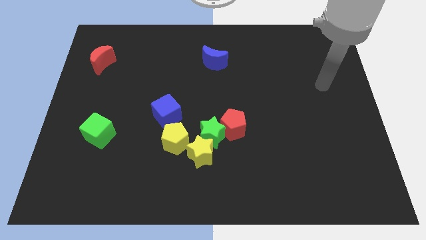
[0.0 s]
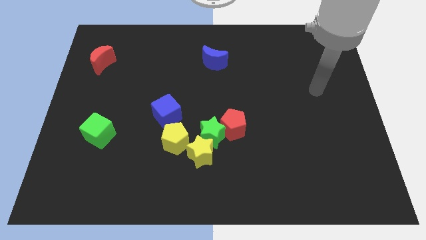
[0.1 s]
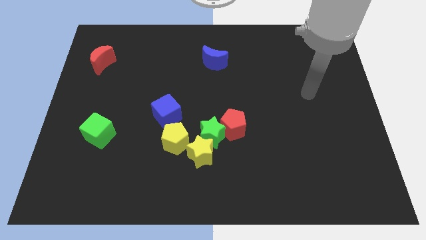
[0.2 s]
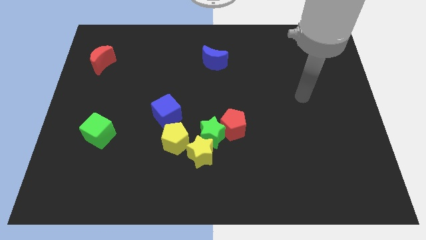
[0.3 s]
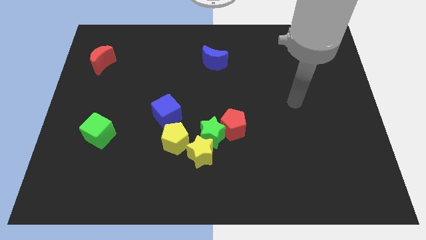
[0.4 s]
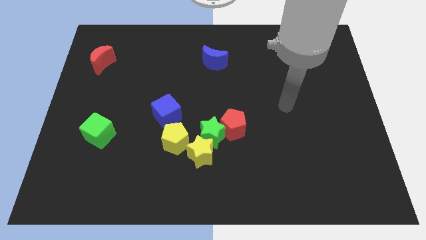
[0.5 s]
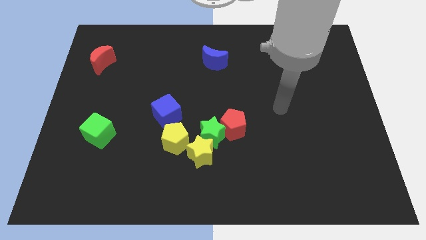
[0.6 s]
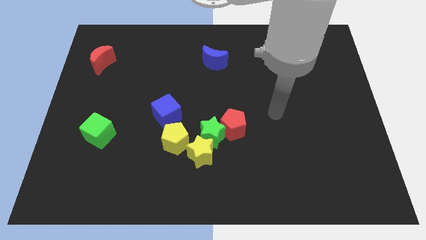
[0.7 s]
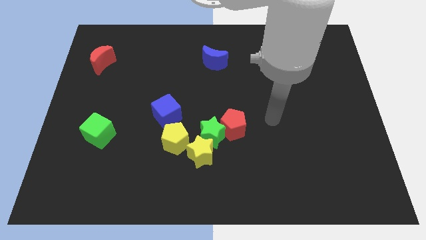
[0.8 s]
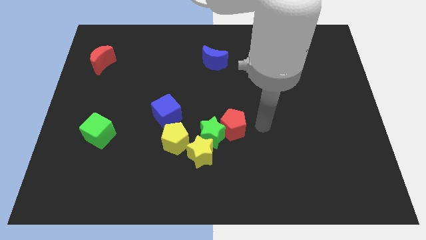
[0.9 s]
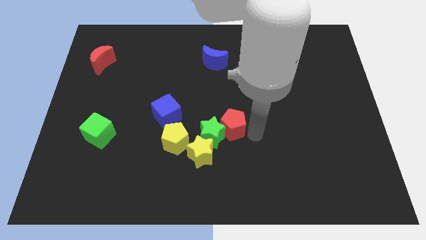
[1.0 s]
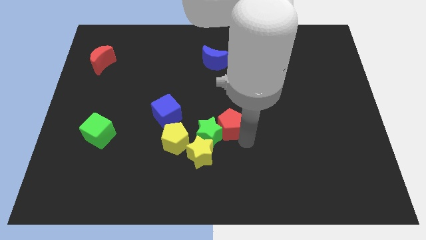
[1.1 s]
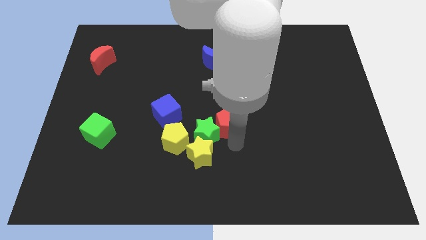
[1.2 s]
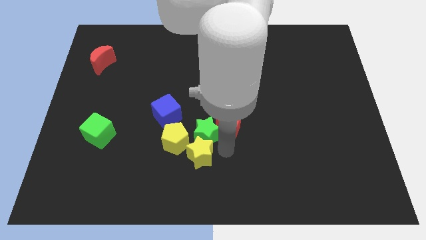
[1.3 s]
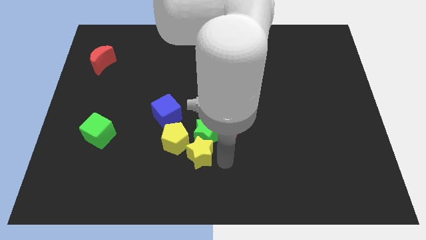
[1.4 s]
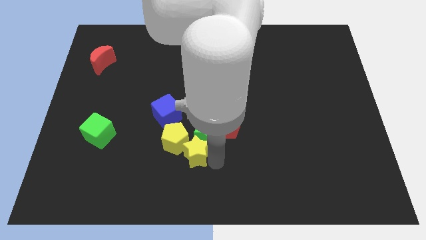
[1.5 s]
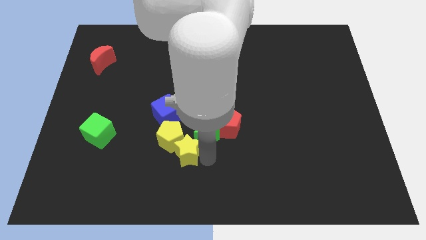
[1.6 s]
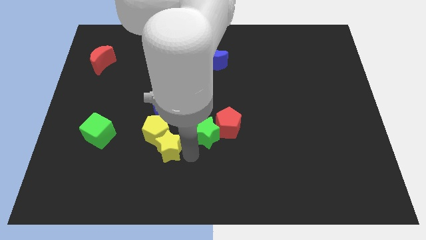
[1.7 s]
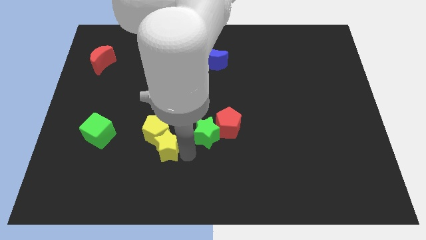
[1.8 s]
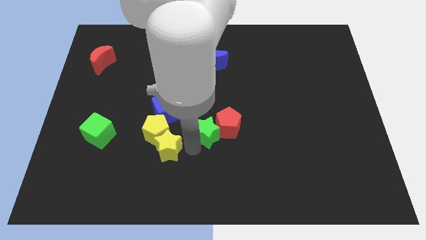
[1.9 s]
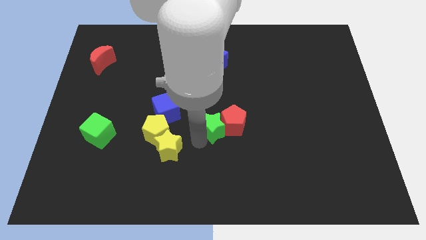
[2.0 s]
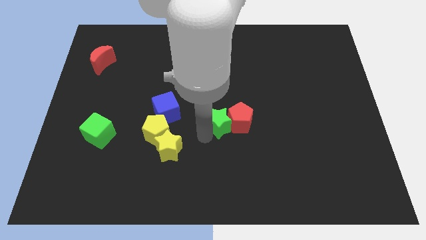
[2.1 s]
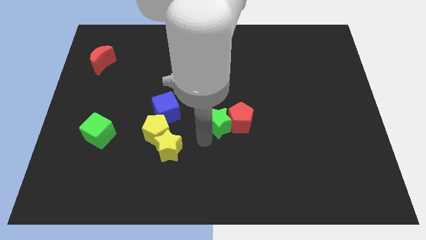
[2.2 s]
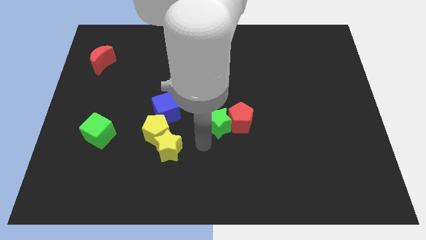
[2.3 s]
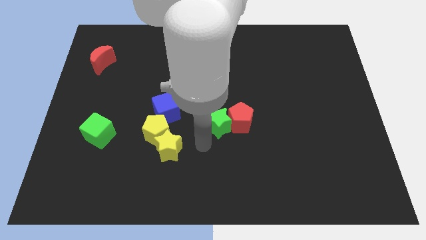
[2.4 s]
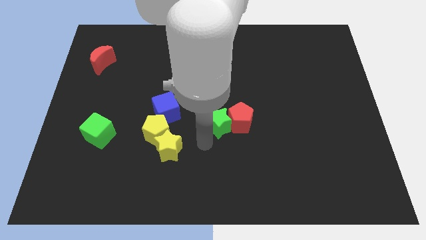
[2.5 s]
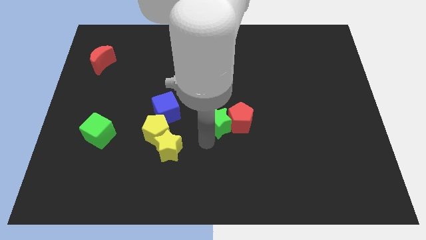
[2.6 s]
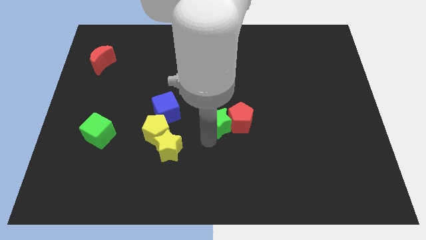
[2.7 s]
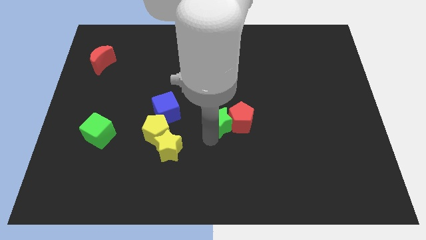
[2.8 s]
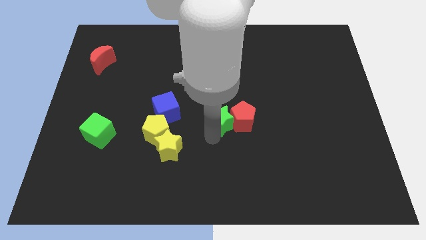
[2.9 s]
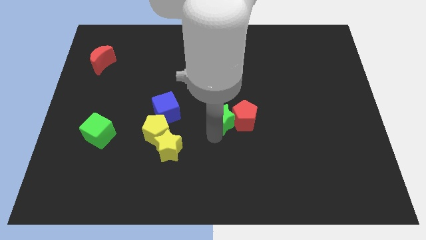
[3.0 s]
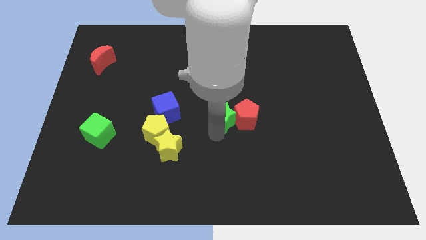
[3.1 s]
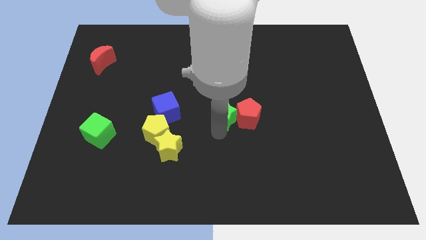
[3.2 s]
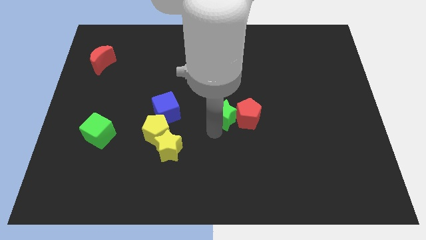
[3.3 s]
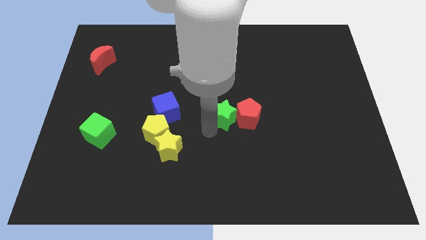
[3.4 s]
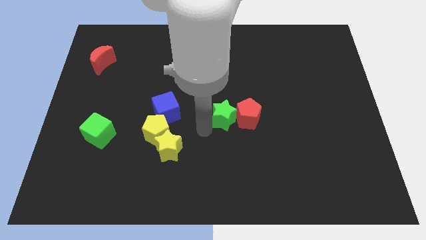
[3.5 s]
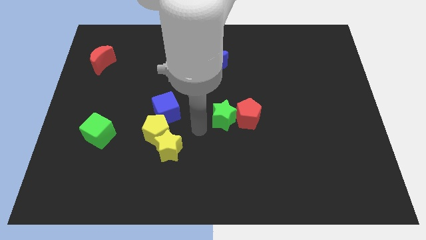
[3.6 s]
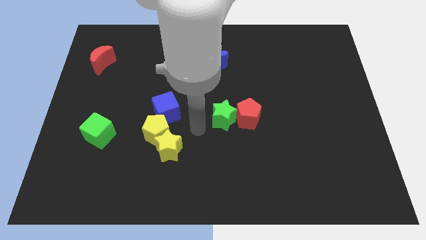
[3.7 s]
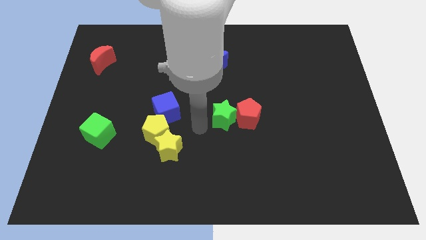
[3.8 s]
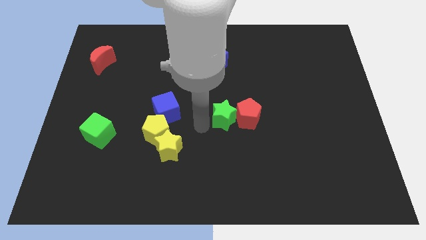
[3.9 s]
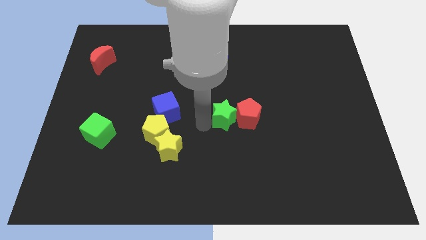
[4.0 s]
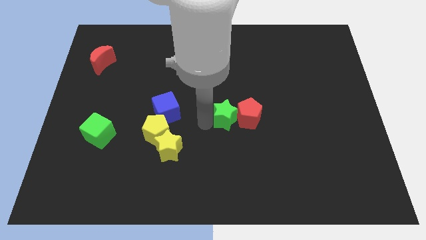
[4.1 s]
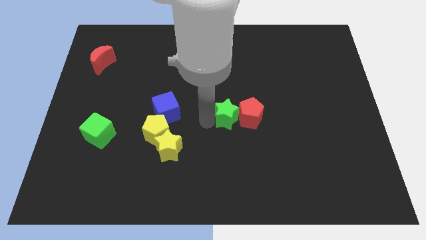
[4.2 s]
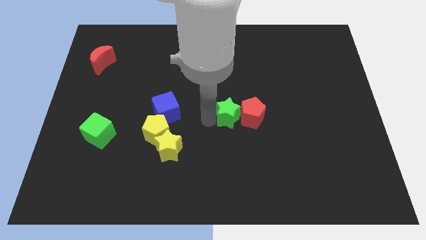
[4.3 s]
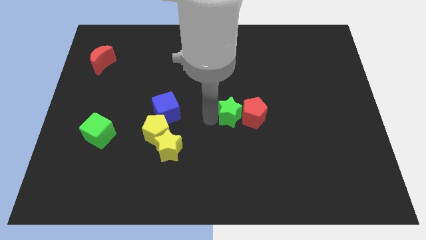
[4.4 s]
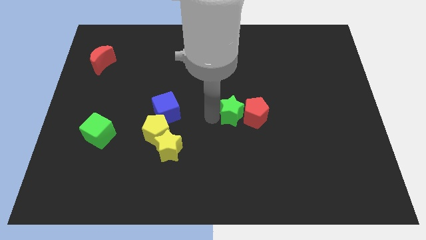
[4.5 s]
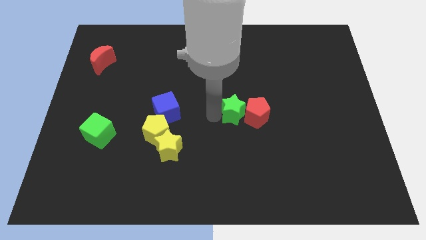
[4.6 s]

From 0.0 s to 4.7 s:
move the green star away from the yellow star, red pentagon, and yellow pentagon

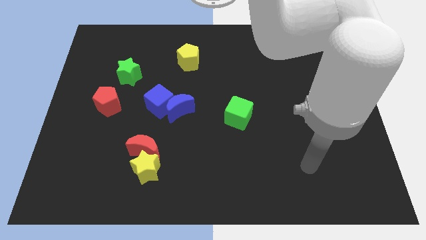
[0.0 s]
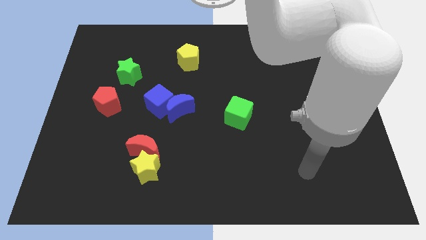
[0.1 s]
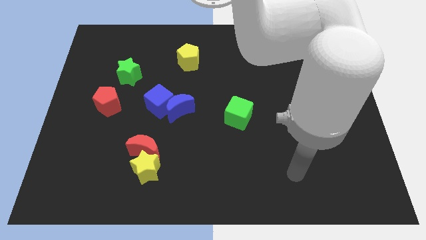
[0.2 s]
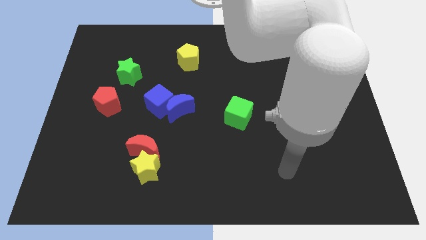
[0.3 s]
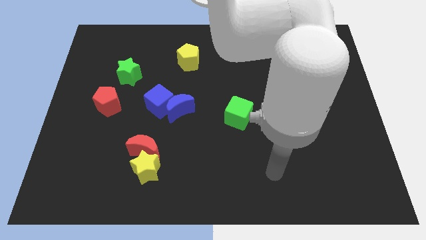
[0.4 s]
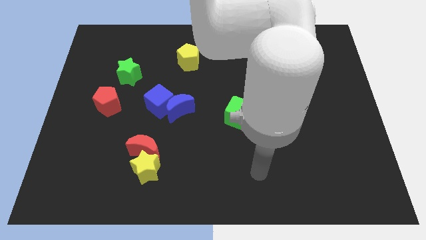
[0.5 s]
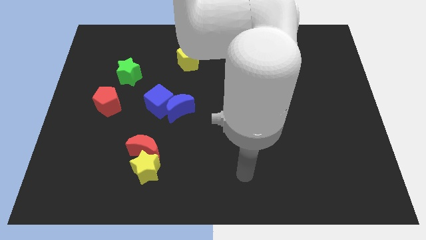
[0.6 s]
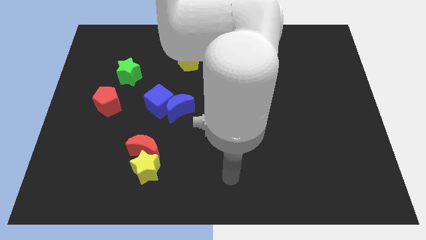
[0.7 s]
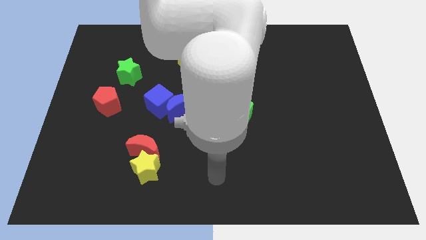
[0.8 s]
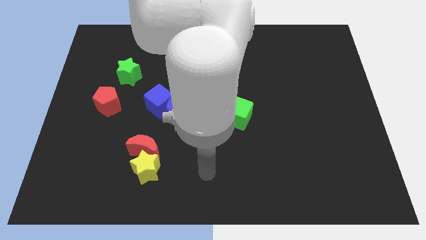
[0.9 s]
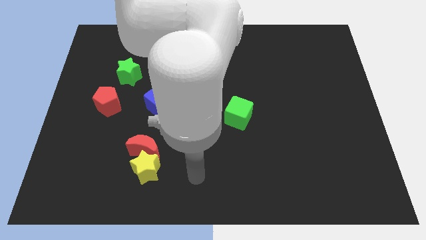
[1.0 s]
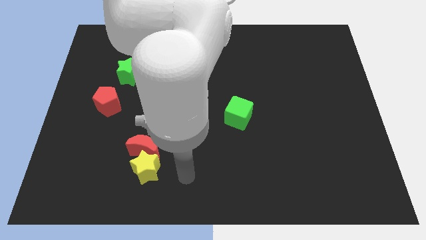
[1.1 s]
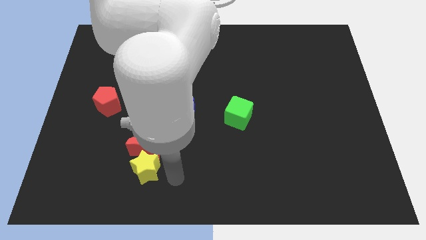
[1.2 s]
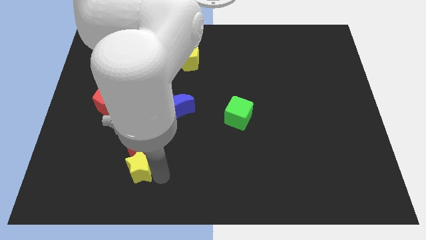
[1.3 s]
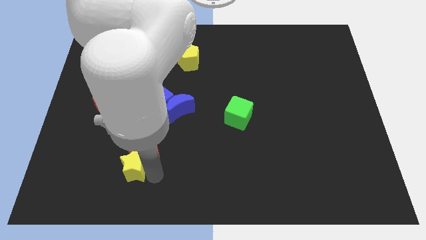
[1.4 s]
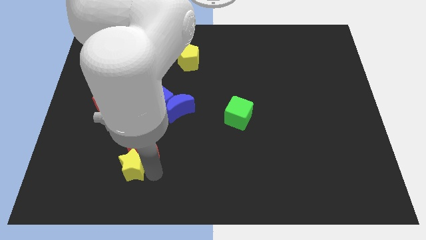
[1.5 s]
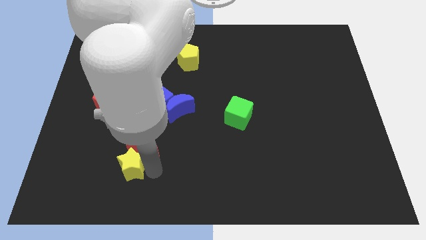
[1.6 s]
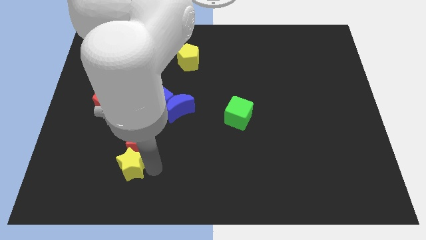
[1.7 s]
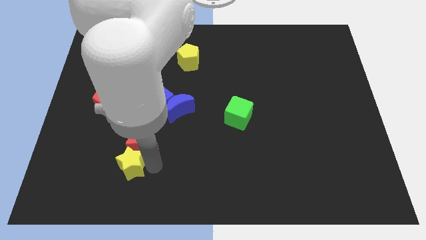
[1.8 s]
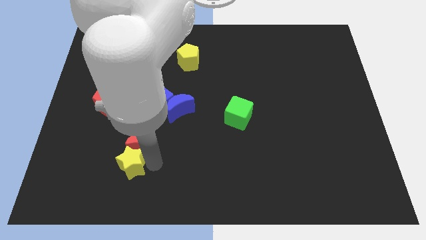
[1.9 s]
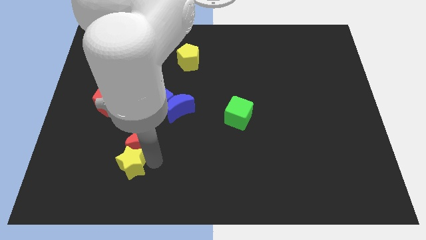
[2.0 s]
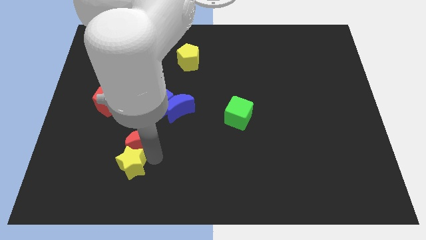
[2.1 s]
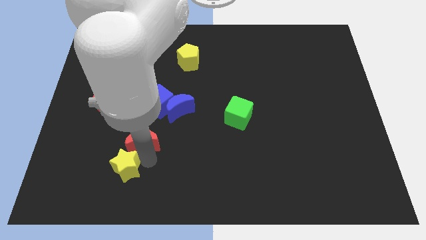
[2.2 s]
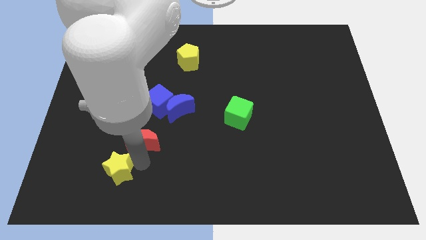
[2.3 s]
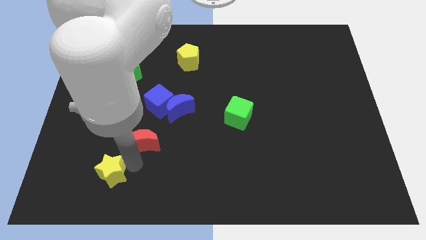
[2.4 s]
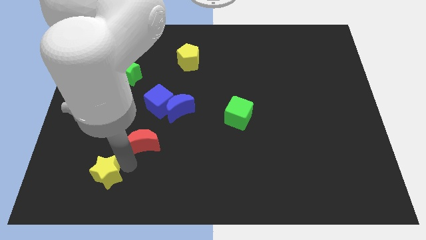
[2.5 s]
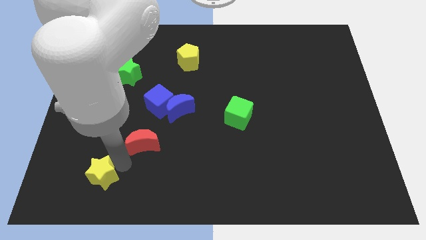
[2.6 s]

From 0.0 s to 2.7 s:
pull the red moon apart from the yellow star

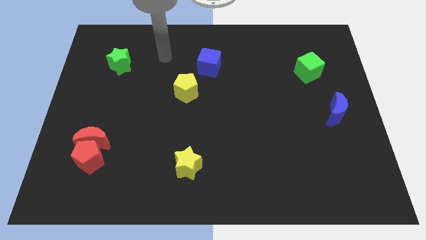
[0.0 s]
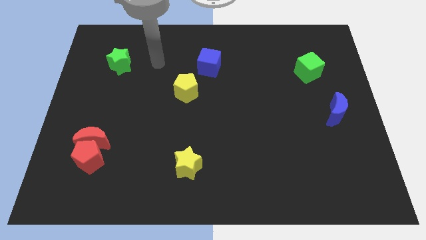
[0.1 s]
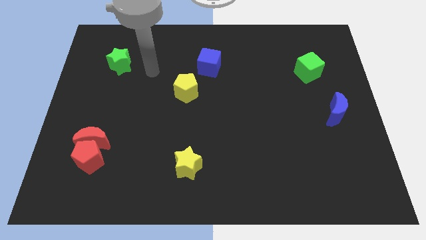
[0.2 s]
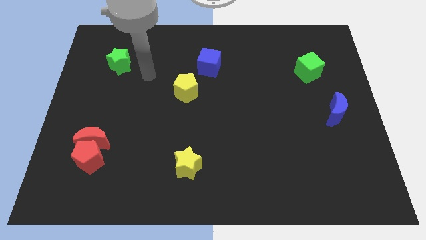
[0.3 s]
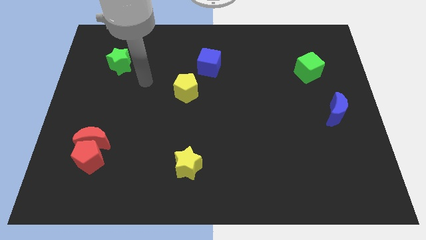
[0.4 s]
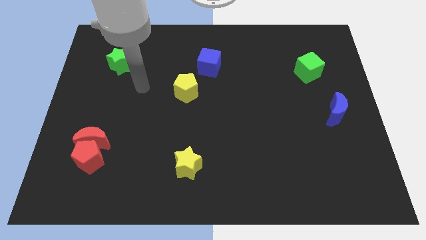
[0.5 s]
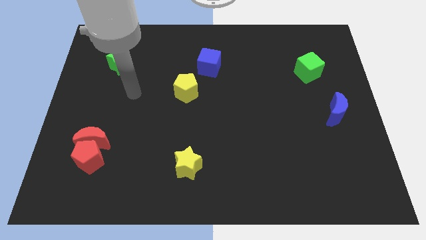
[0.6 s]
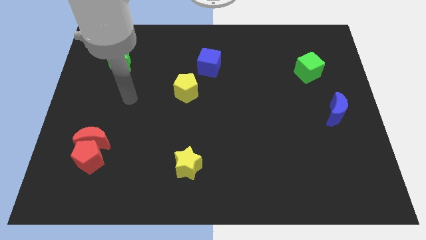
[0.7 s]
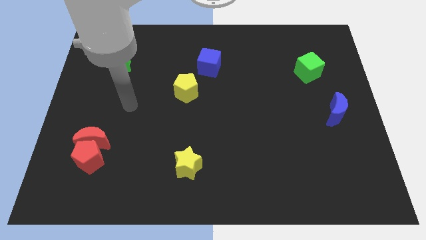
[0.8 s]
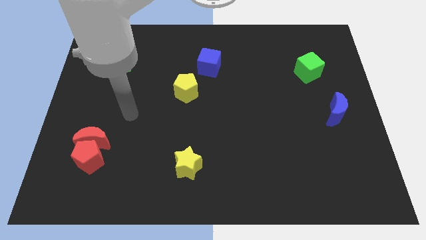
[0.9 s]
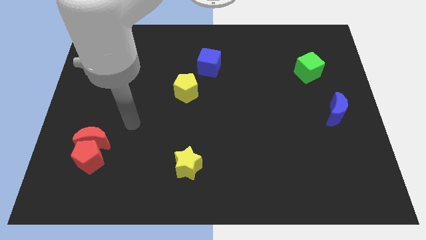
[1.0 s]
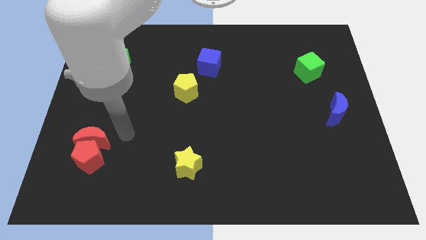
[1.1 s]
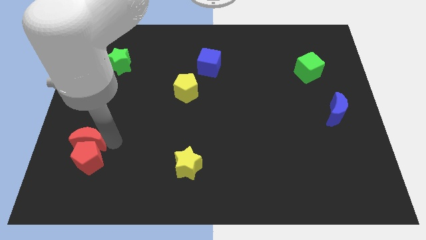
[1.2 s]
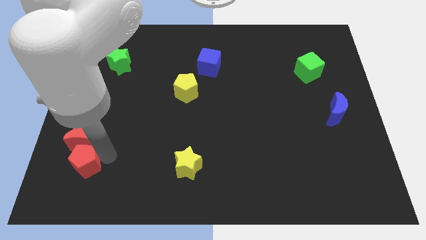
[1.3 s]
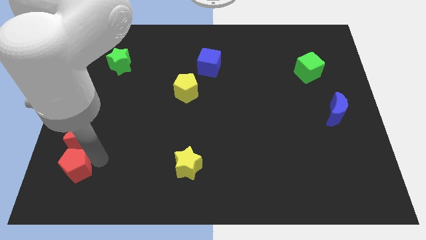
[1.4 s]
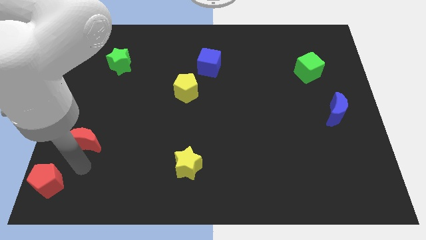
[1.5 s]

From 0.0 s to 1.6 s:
separate the red moon from the red pentagon

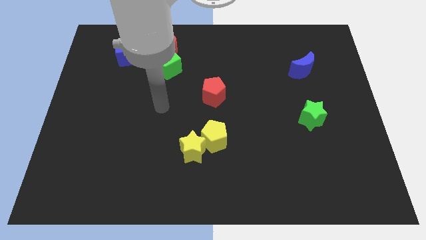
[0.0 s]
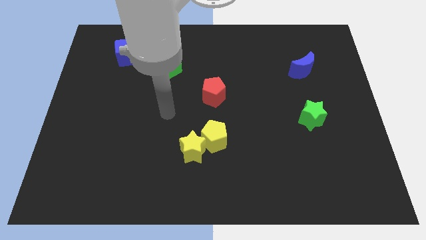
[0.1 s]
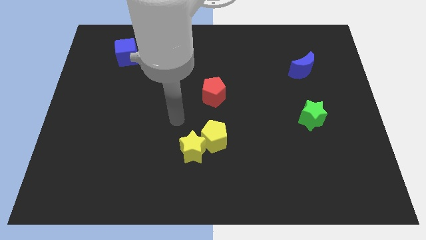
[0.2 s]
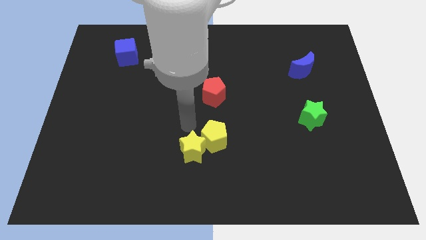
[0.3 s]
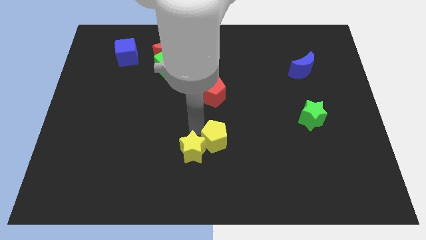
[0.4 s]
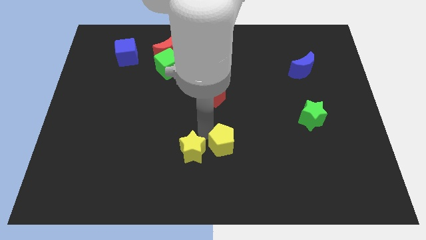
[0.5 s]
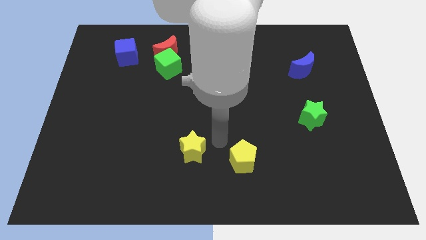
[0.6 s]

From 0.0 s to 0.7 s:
move the yellow star away from the yellow pentagon
